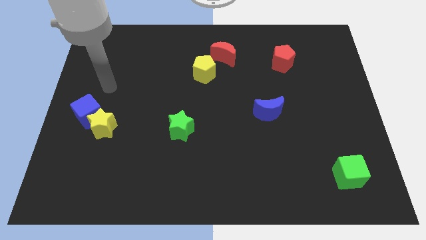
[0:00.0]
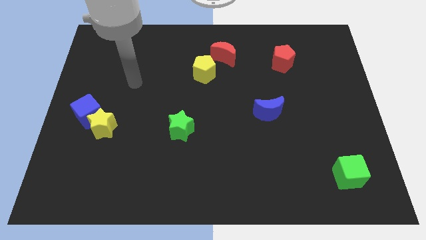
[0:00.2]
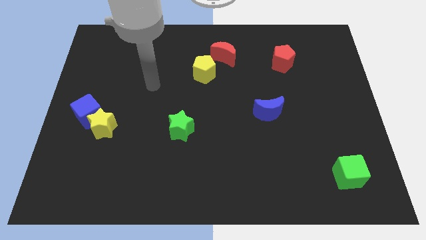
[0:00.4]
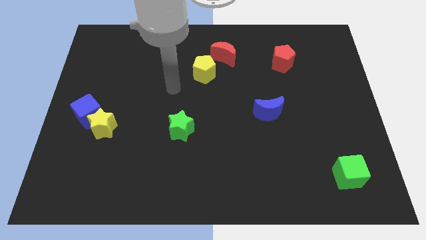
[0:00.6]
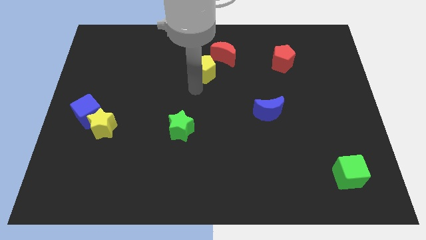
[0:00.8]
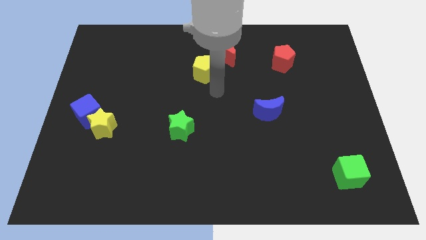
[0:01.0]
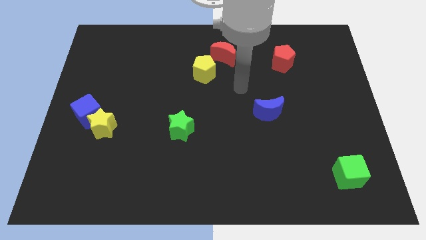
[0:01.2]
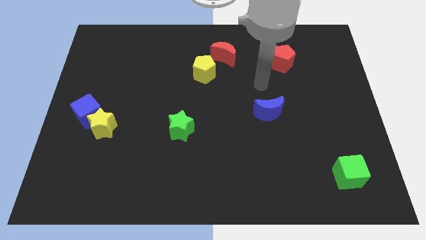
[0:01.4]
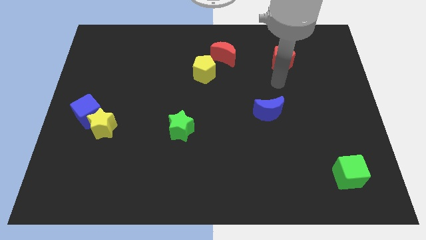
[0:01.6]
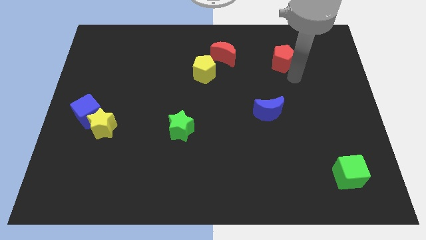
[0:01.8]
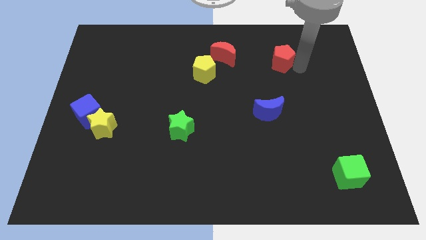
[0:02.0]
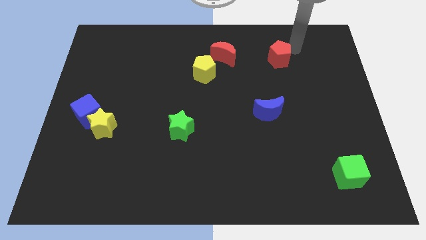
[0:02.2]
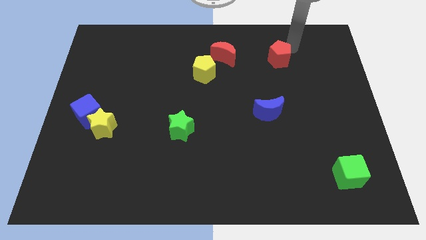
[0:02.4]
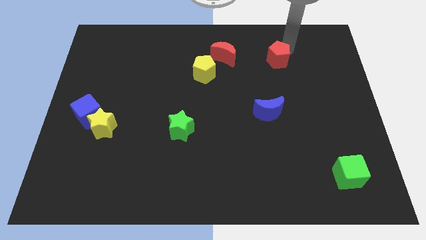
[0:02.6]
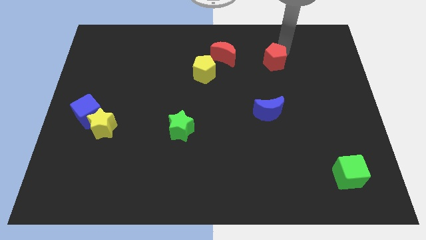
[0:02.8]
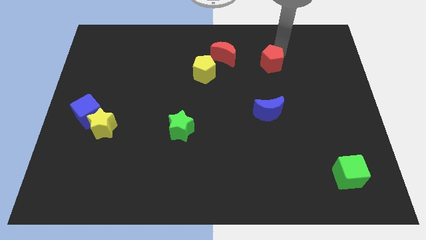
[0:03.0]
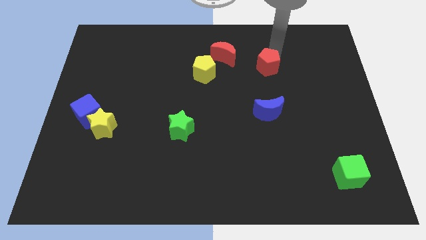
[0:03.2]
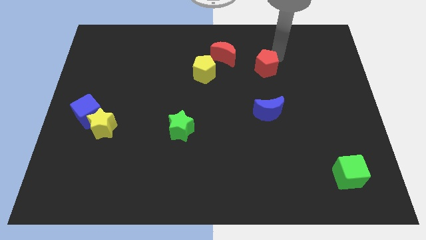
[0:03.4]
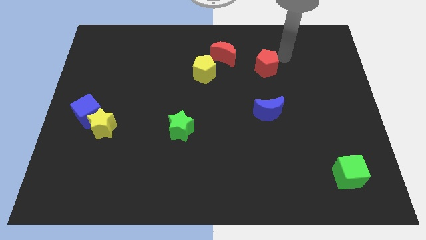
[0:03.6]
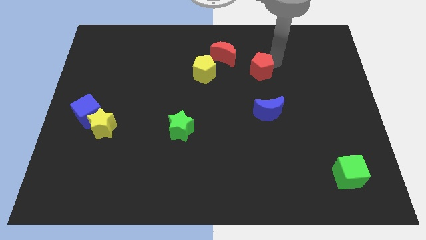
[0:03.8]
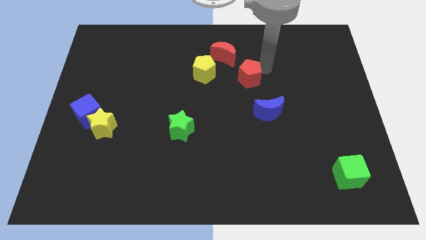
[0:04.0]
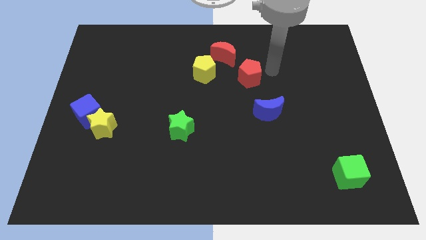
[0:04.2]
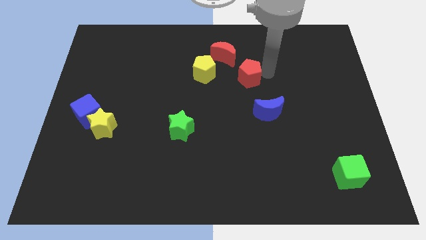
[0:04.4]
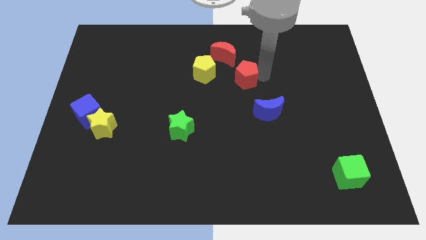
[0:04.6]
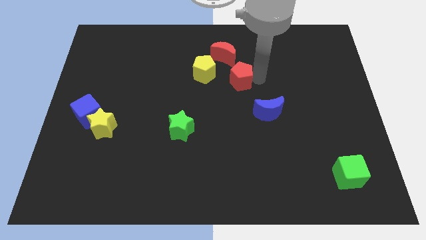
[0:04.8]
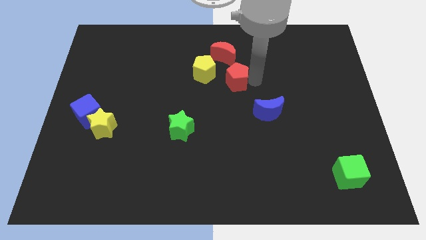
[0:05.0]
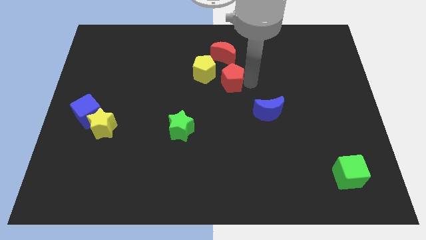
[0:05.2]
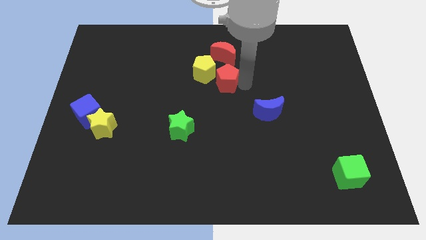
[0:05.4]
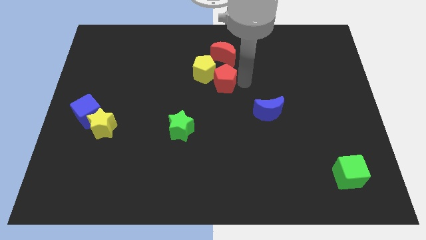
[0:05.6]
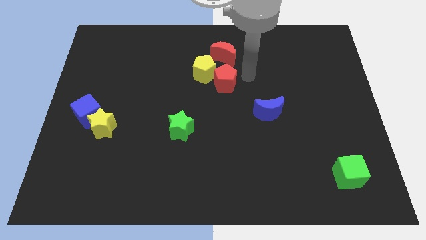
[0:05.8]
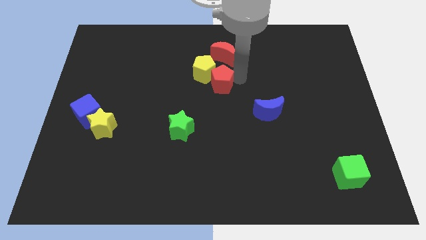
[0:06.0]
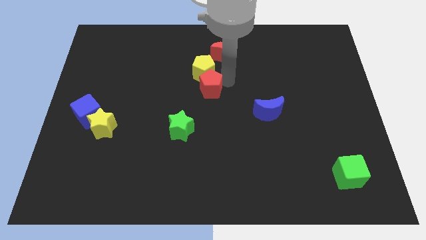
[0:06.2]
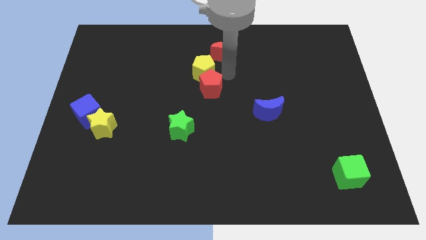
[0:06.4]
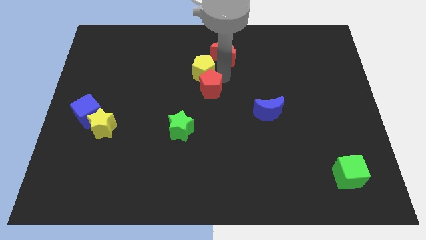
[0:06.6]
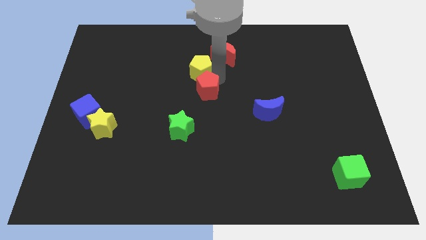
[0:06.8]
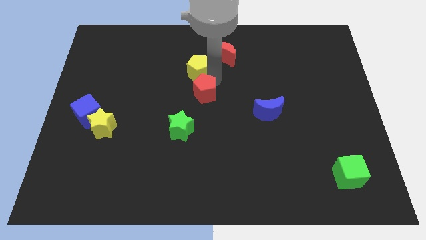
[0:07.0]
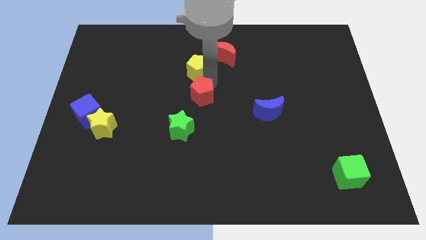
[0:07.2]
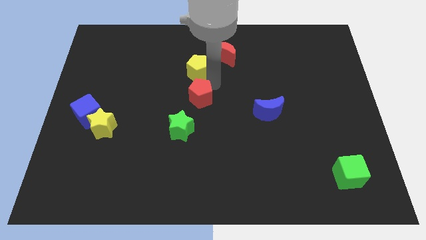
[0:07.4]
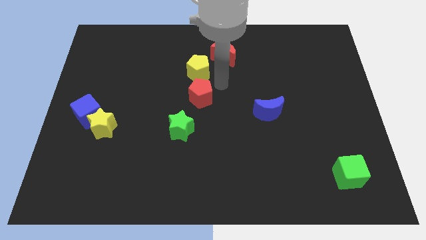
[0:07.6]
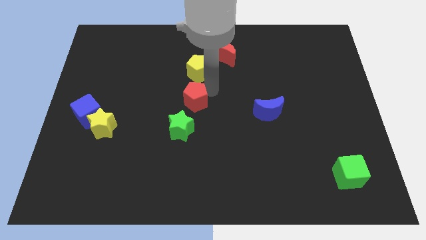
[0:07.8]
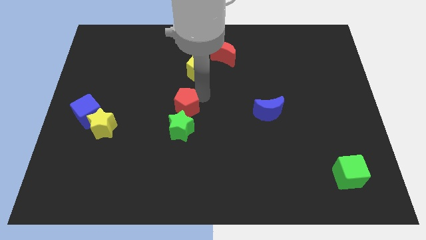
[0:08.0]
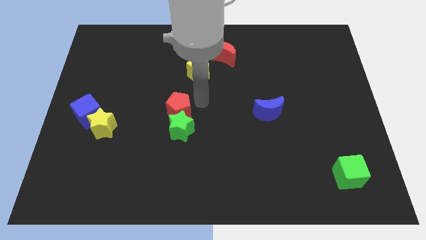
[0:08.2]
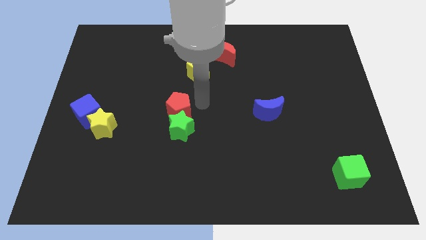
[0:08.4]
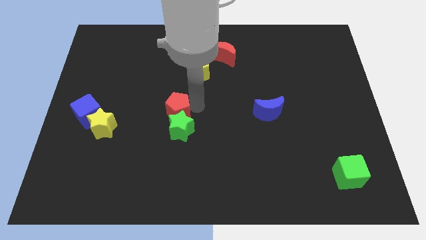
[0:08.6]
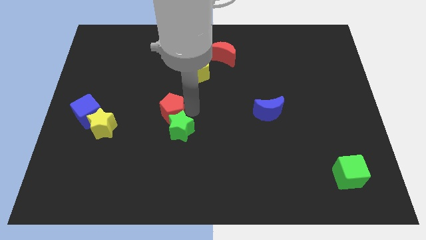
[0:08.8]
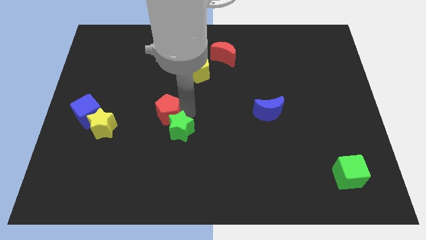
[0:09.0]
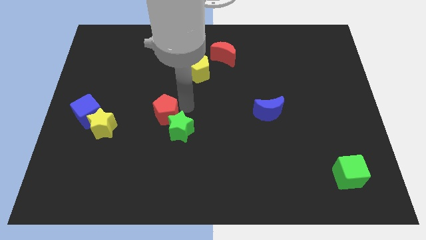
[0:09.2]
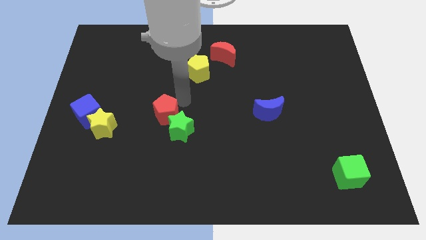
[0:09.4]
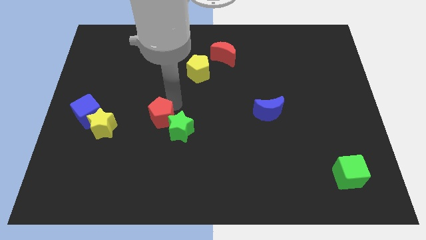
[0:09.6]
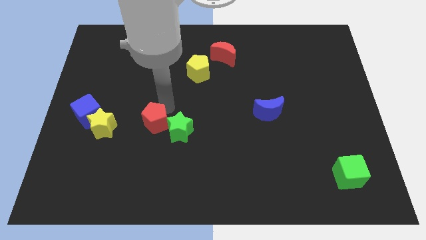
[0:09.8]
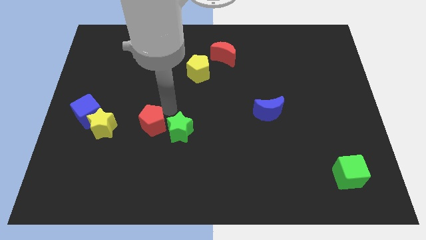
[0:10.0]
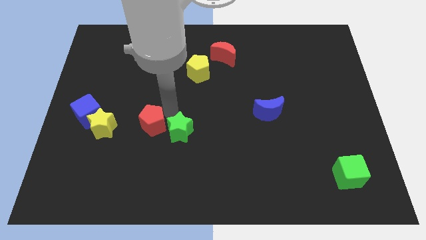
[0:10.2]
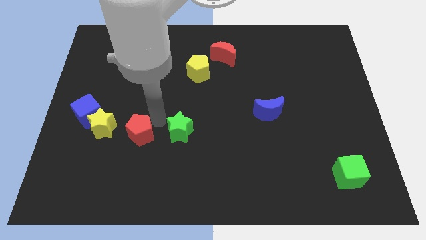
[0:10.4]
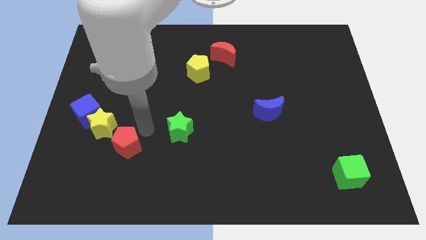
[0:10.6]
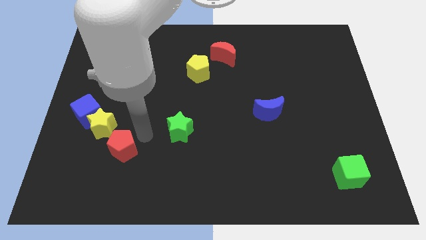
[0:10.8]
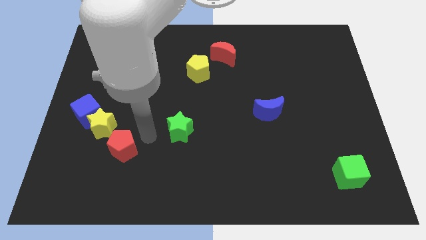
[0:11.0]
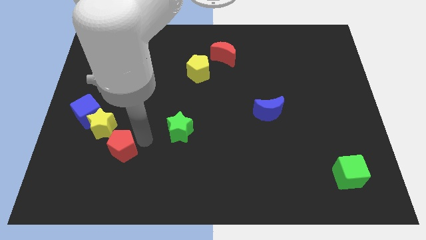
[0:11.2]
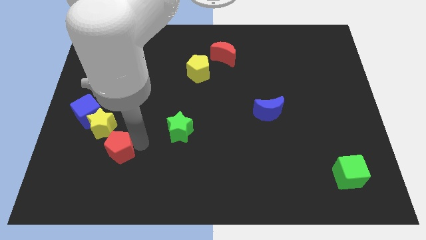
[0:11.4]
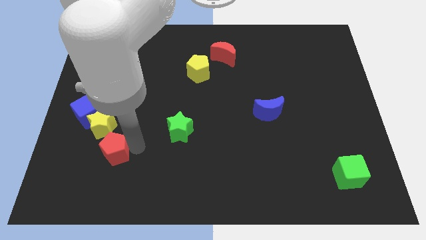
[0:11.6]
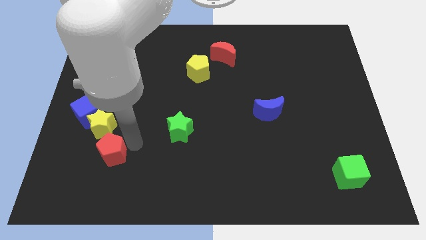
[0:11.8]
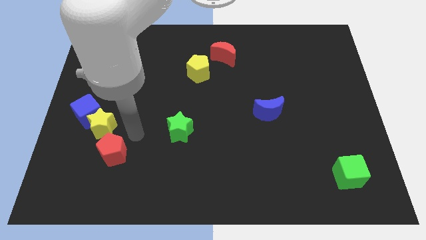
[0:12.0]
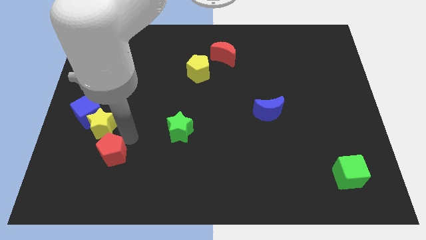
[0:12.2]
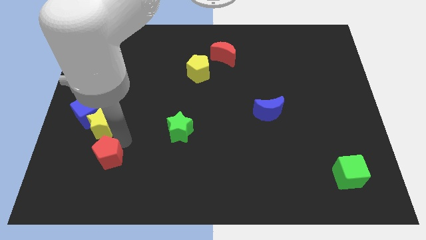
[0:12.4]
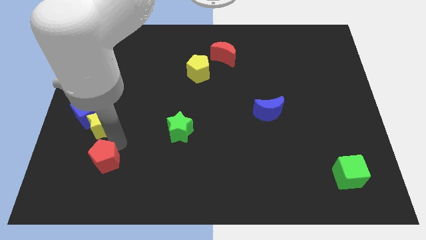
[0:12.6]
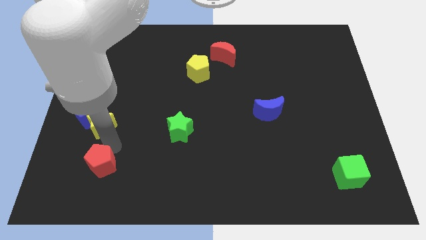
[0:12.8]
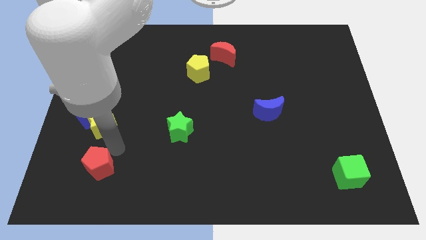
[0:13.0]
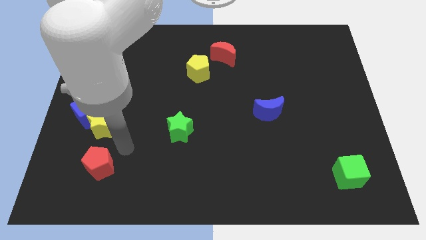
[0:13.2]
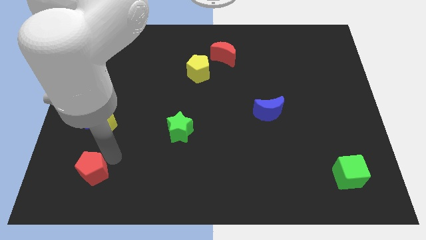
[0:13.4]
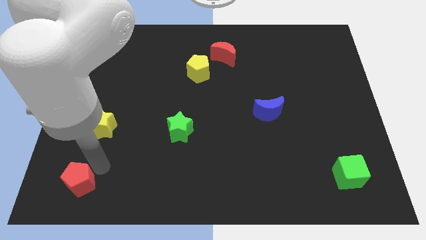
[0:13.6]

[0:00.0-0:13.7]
move the red pentagon to the lower left corner
